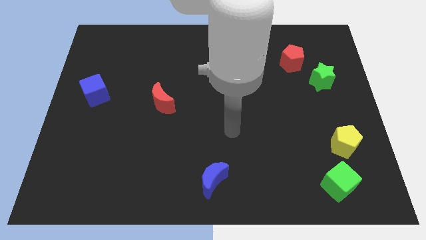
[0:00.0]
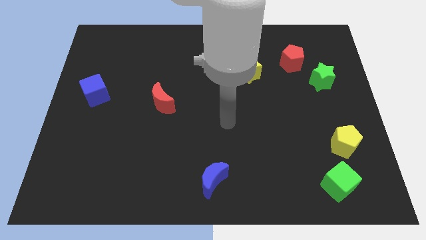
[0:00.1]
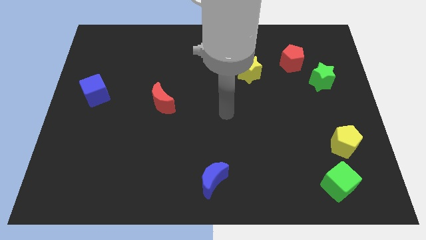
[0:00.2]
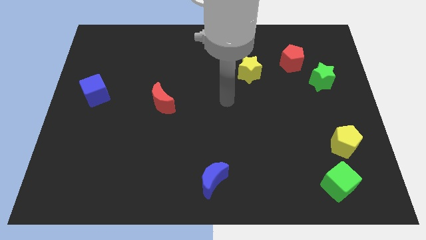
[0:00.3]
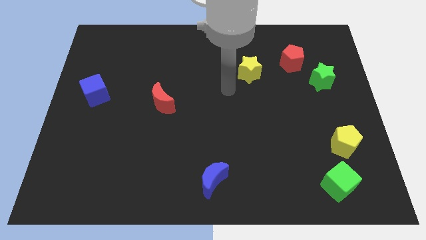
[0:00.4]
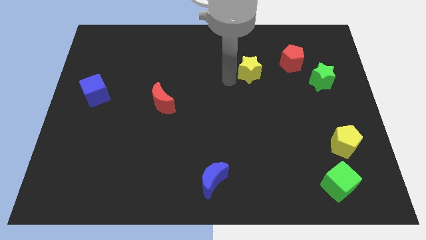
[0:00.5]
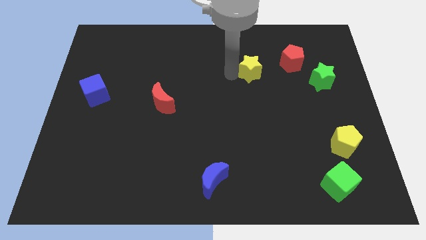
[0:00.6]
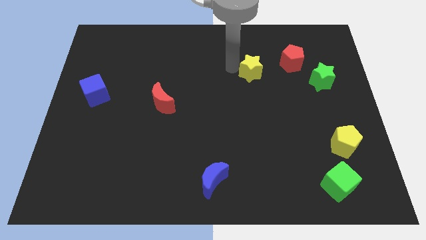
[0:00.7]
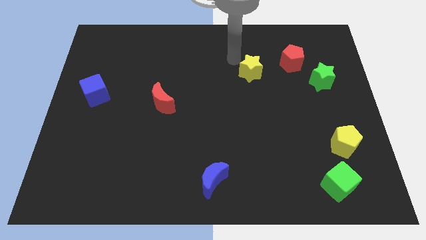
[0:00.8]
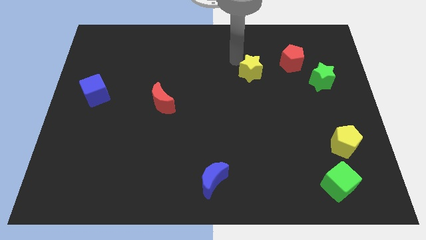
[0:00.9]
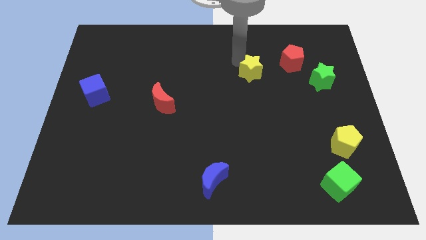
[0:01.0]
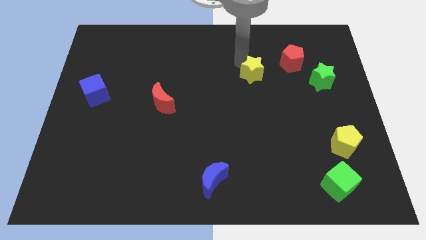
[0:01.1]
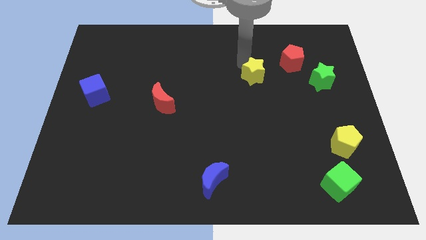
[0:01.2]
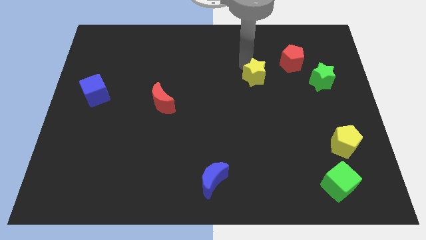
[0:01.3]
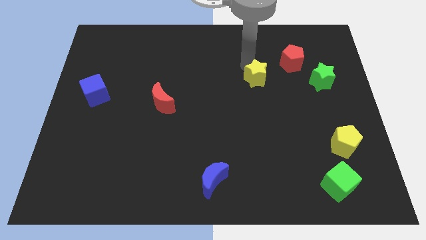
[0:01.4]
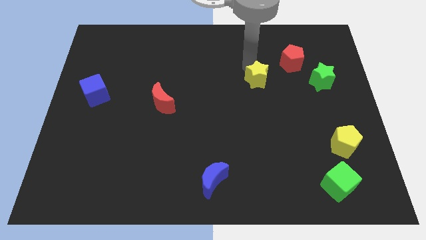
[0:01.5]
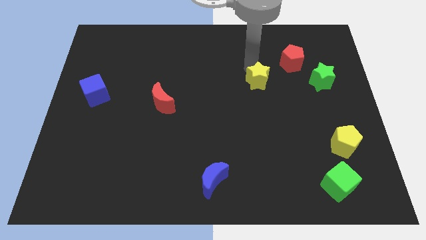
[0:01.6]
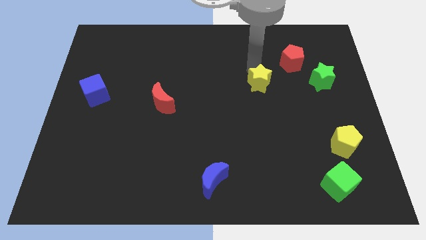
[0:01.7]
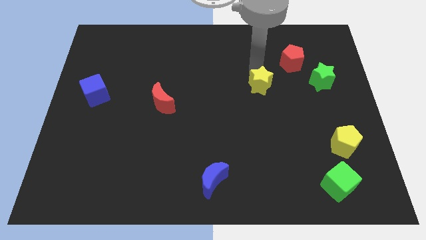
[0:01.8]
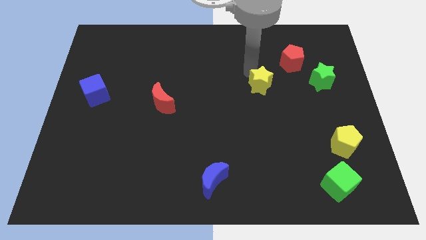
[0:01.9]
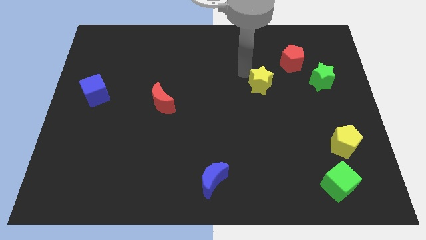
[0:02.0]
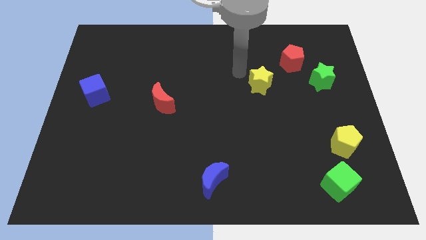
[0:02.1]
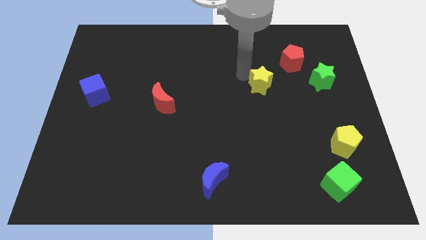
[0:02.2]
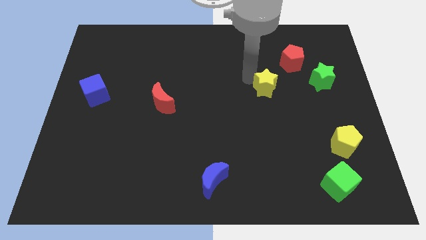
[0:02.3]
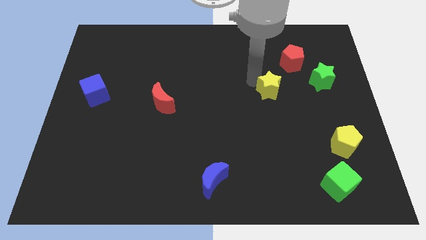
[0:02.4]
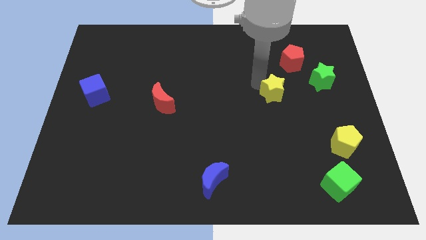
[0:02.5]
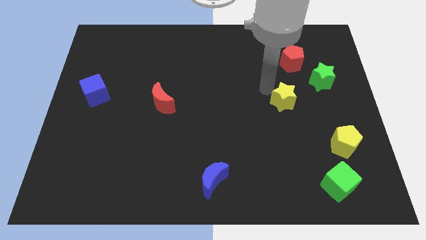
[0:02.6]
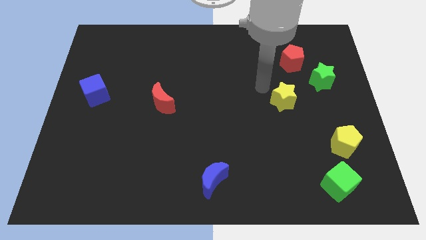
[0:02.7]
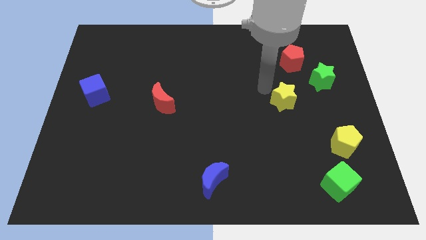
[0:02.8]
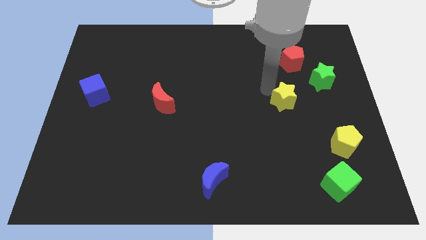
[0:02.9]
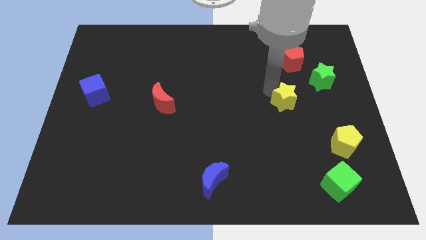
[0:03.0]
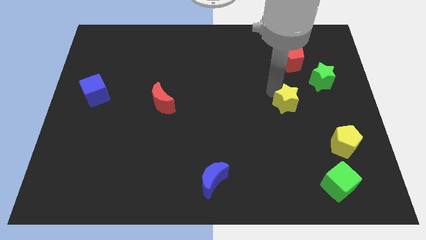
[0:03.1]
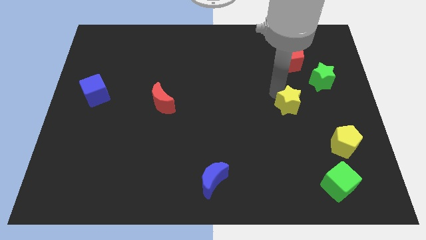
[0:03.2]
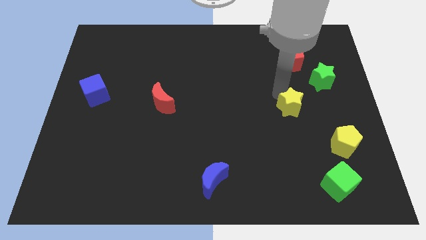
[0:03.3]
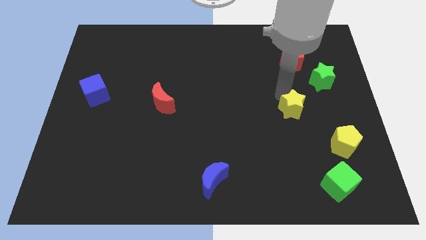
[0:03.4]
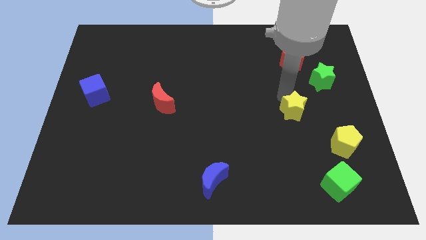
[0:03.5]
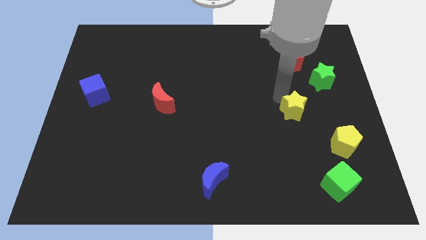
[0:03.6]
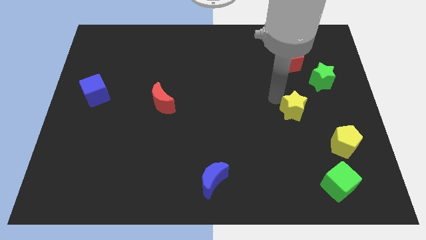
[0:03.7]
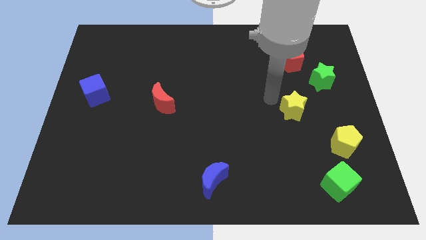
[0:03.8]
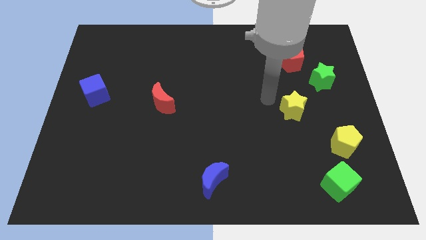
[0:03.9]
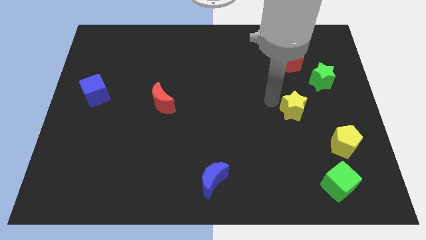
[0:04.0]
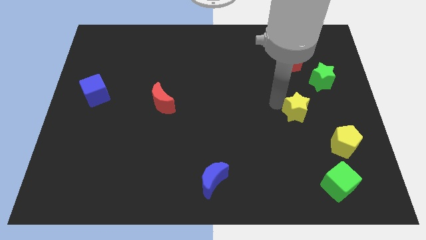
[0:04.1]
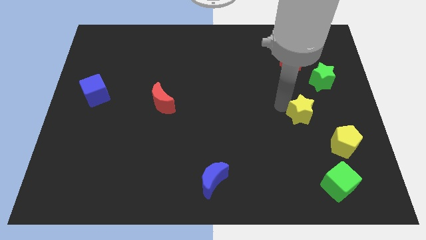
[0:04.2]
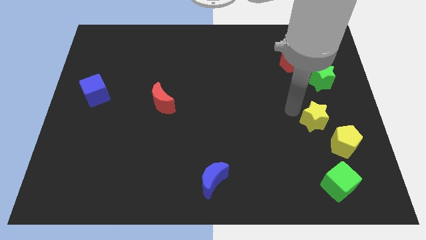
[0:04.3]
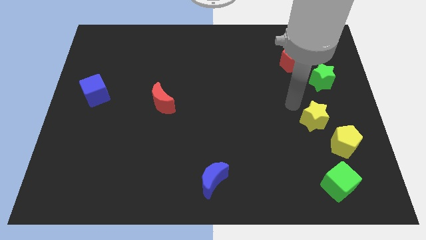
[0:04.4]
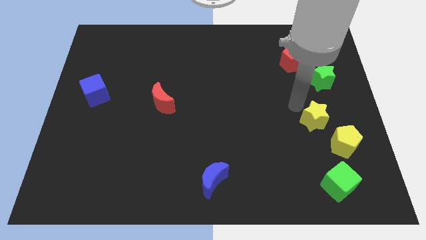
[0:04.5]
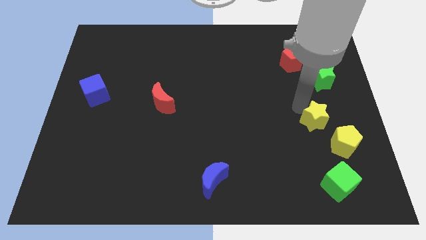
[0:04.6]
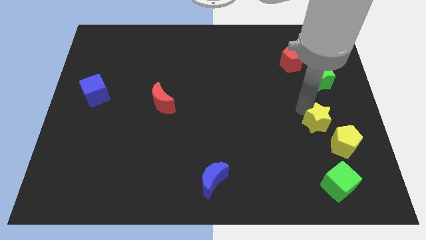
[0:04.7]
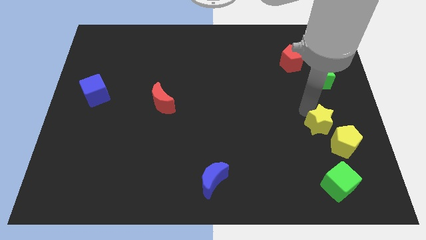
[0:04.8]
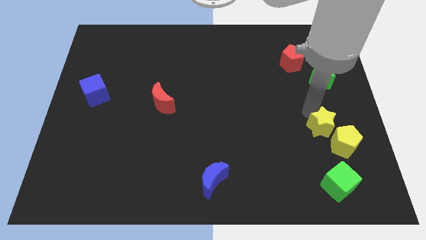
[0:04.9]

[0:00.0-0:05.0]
move the yellow star close to the yellow pentagon

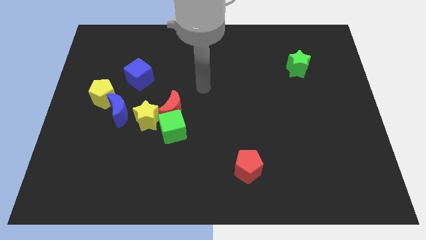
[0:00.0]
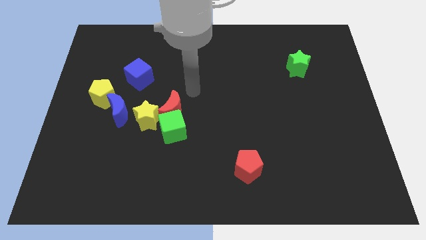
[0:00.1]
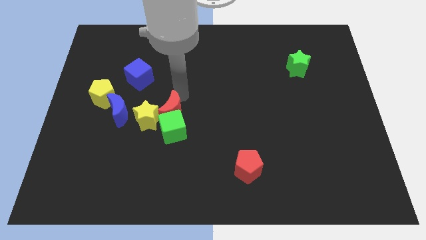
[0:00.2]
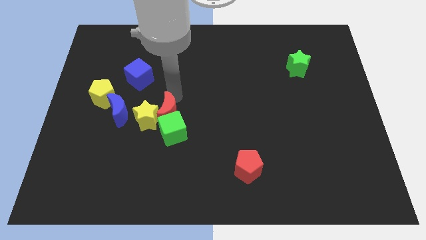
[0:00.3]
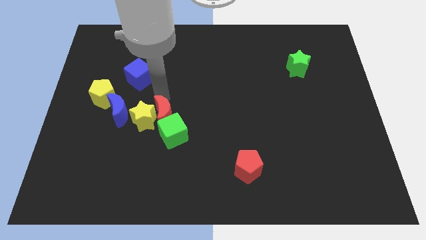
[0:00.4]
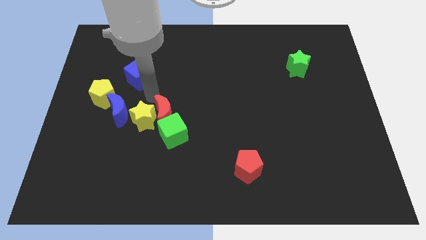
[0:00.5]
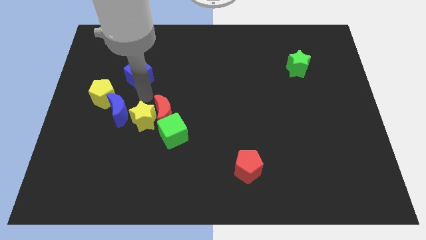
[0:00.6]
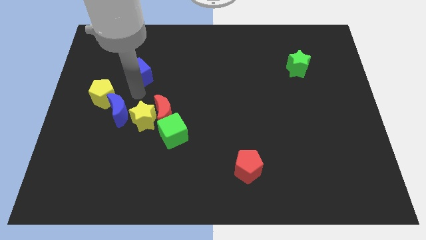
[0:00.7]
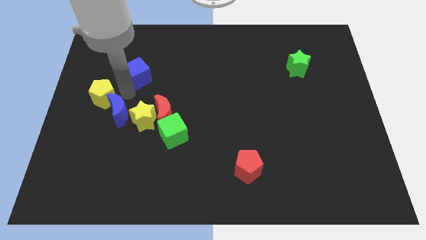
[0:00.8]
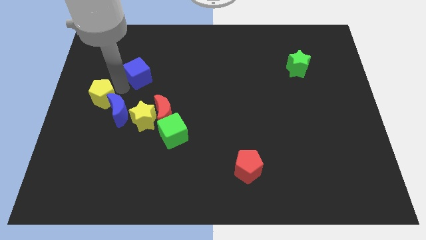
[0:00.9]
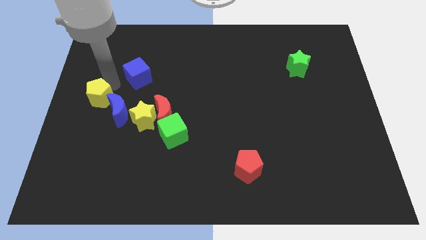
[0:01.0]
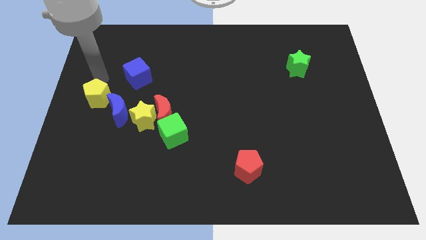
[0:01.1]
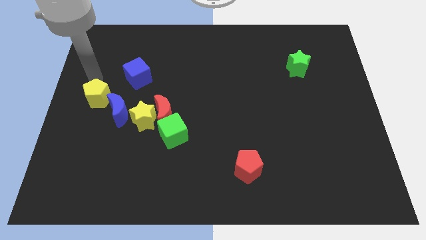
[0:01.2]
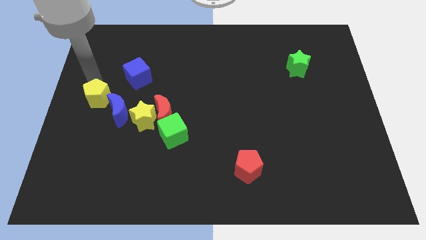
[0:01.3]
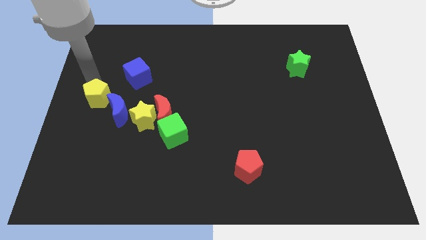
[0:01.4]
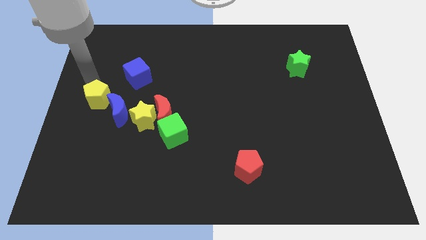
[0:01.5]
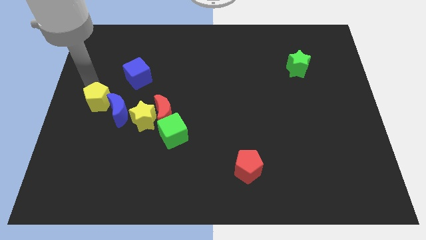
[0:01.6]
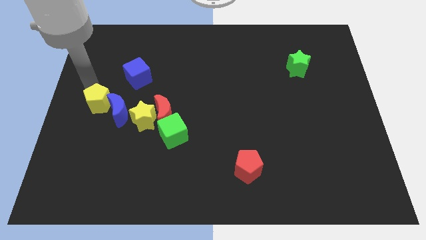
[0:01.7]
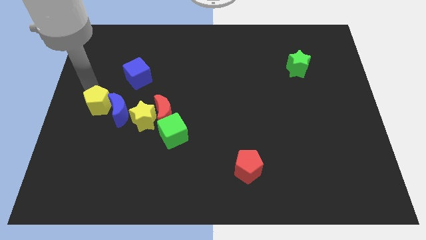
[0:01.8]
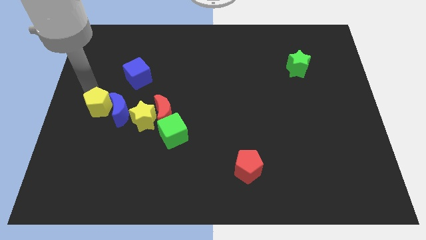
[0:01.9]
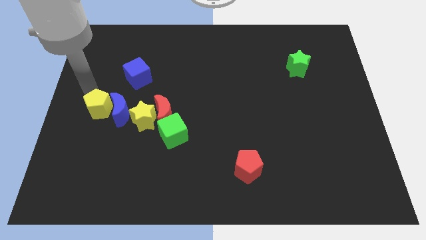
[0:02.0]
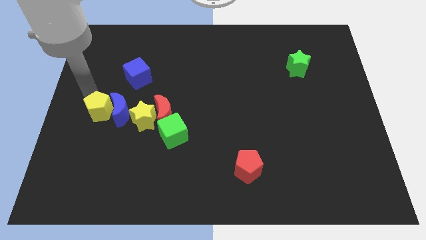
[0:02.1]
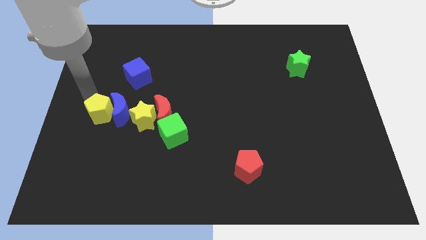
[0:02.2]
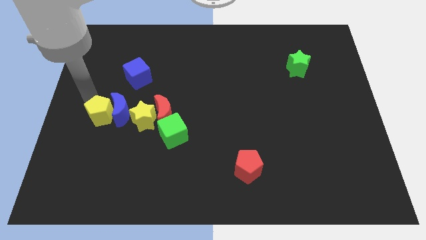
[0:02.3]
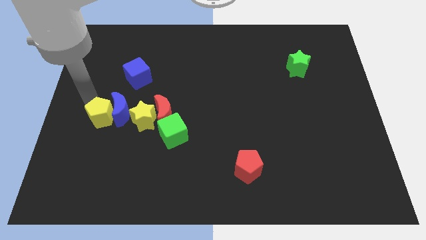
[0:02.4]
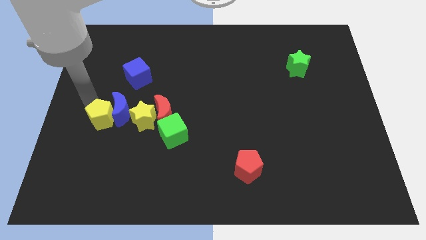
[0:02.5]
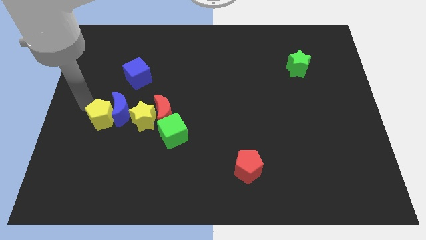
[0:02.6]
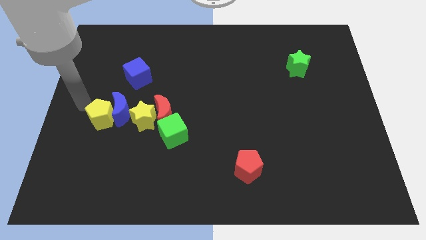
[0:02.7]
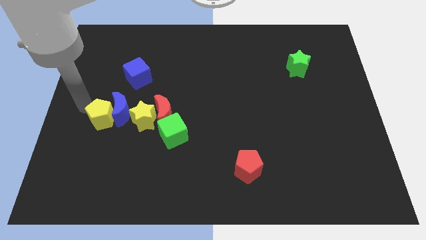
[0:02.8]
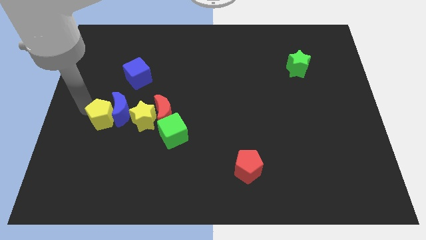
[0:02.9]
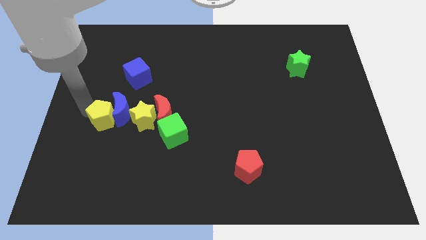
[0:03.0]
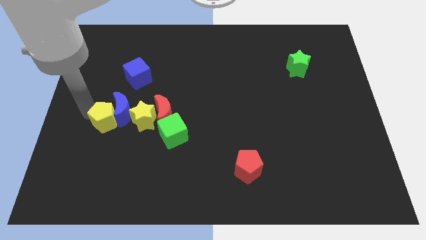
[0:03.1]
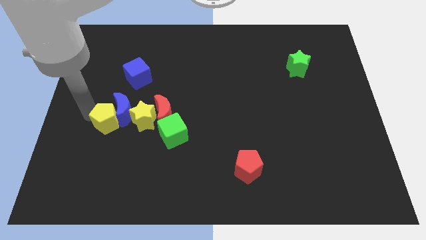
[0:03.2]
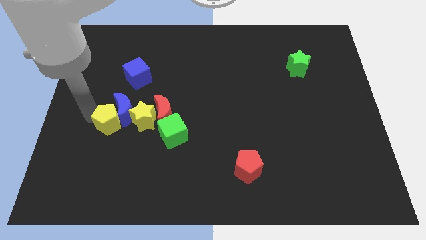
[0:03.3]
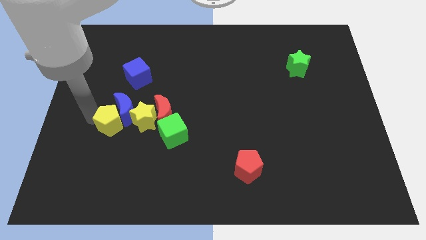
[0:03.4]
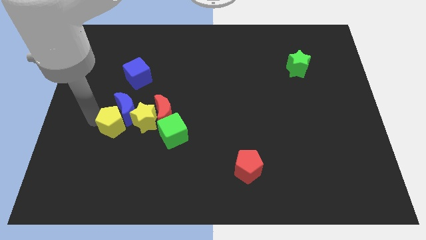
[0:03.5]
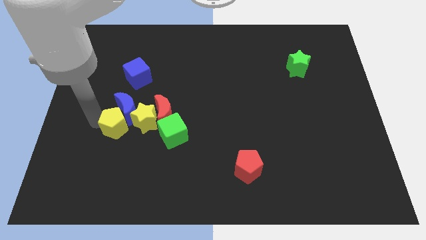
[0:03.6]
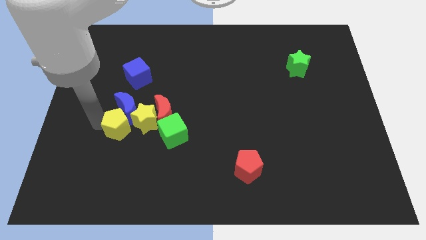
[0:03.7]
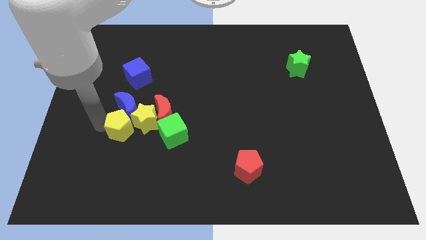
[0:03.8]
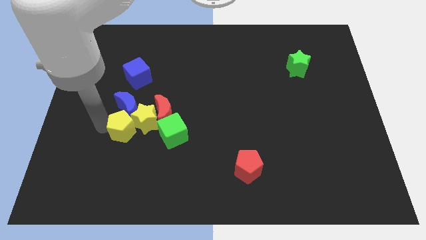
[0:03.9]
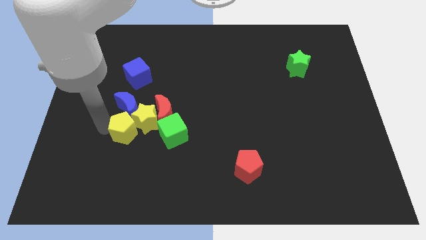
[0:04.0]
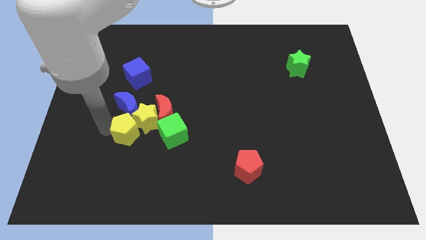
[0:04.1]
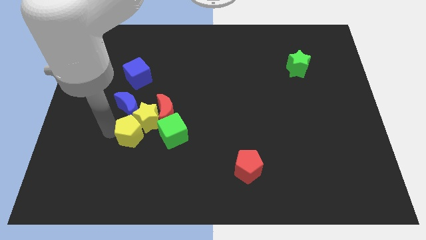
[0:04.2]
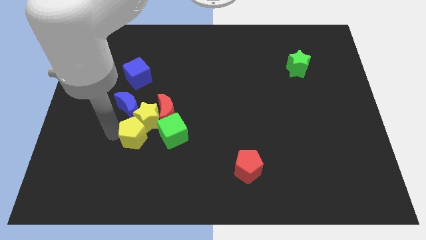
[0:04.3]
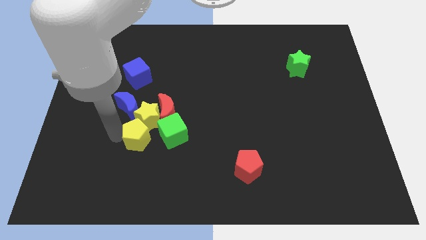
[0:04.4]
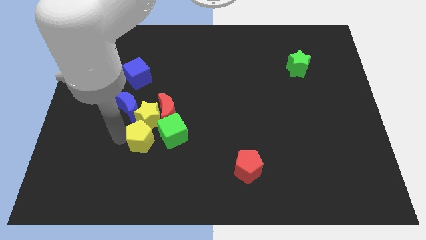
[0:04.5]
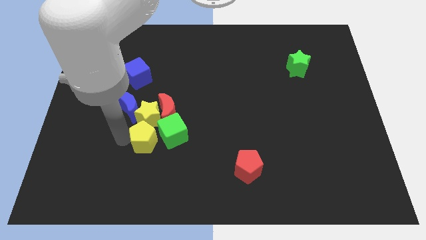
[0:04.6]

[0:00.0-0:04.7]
slide the yellow pentagon towards the green cube
